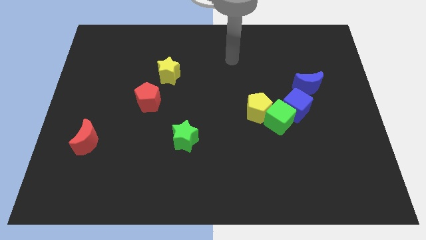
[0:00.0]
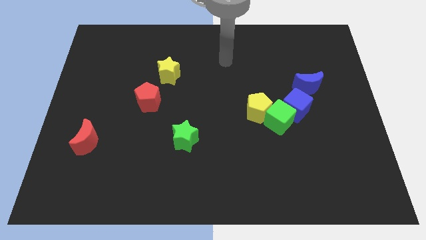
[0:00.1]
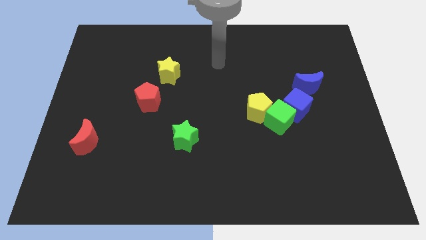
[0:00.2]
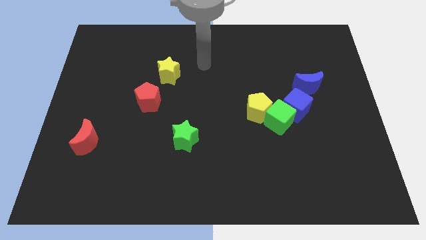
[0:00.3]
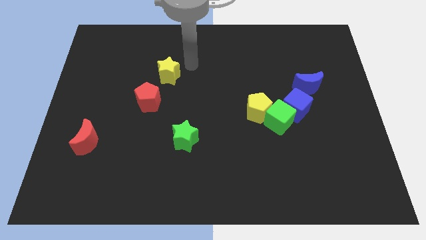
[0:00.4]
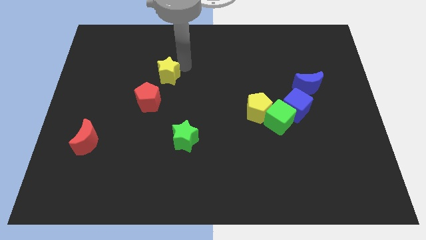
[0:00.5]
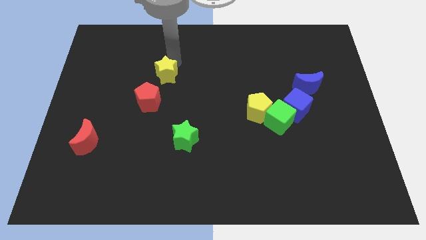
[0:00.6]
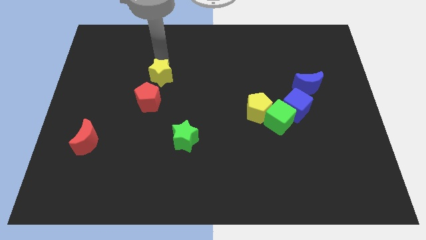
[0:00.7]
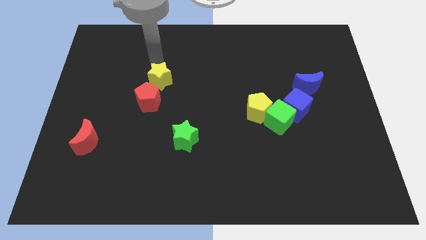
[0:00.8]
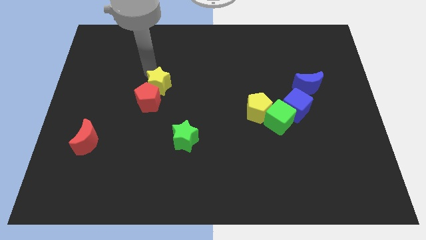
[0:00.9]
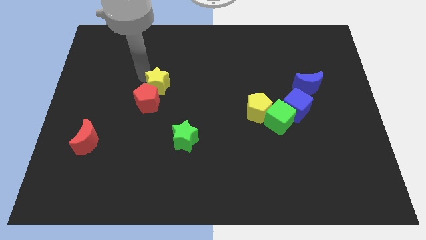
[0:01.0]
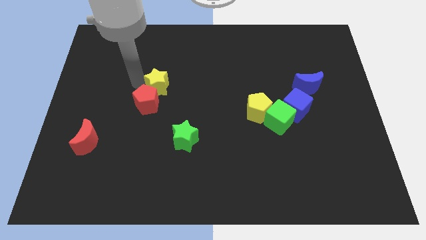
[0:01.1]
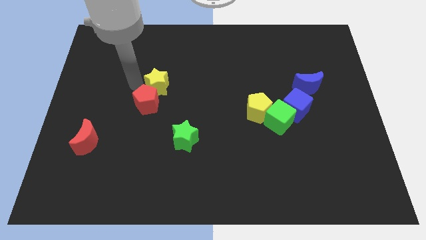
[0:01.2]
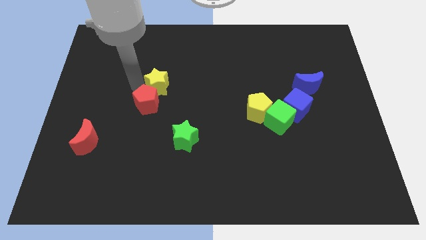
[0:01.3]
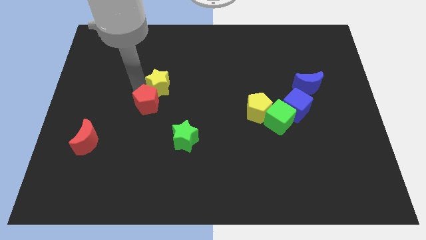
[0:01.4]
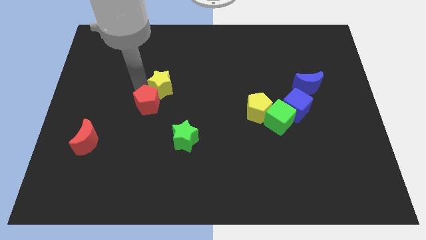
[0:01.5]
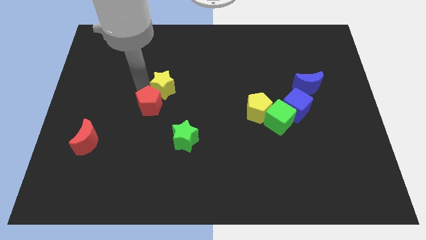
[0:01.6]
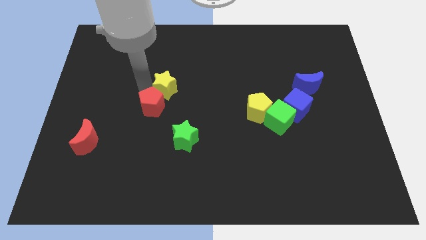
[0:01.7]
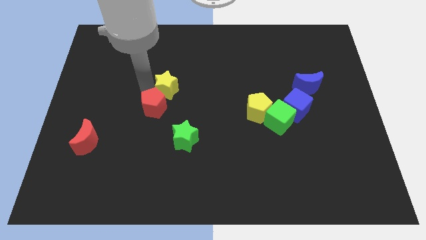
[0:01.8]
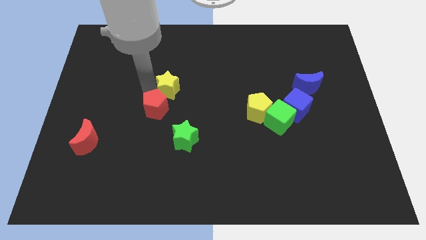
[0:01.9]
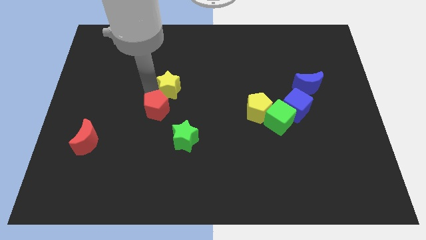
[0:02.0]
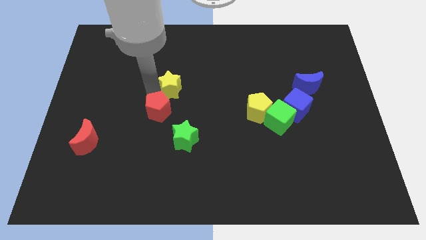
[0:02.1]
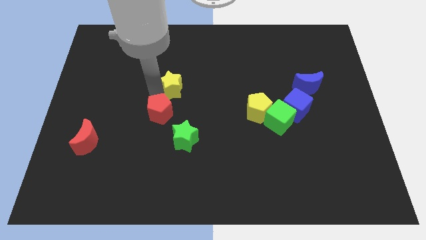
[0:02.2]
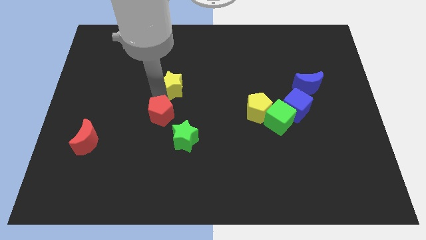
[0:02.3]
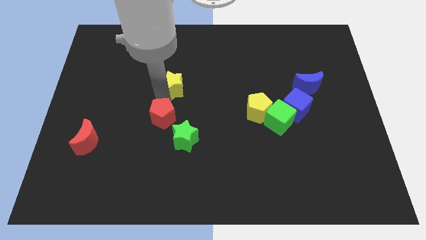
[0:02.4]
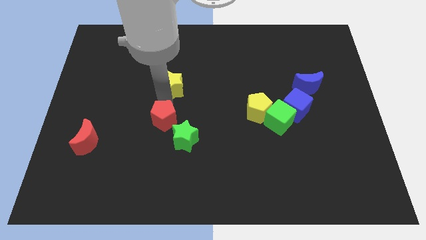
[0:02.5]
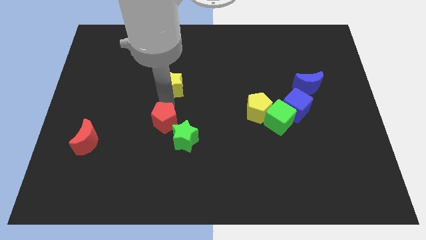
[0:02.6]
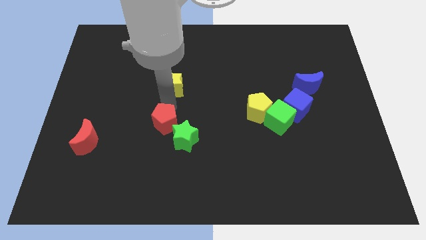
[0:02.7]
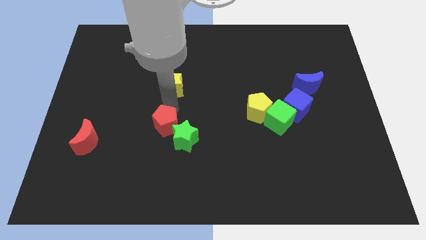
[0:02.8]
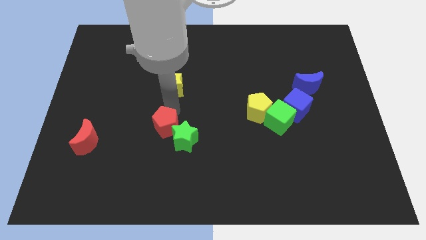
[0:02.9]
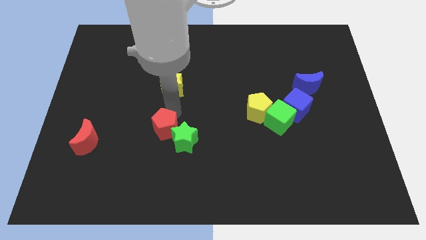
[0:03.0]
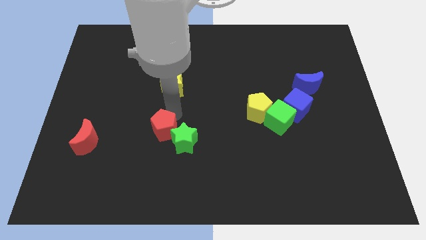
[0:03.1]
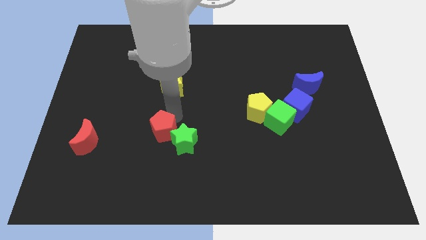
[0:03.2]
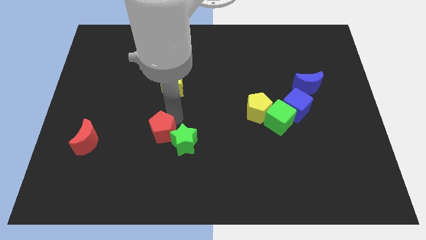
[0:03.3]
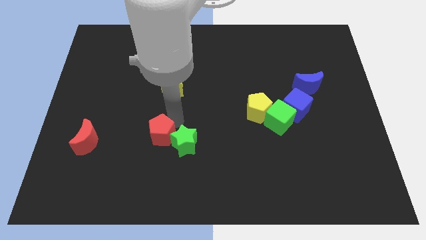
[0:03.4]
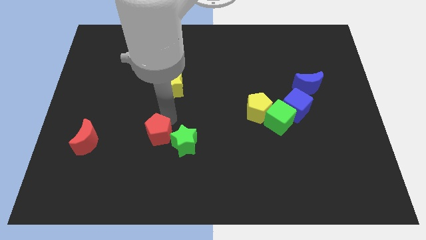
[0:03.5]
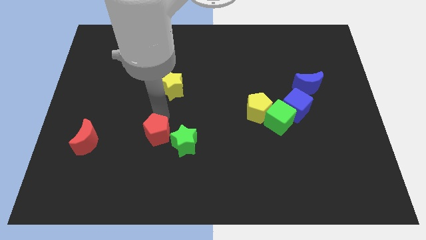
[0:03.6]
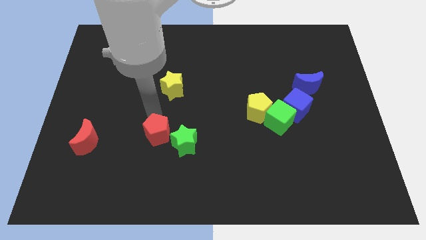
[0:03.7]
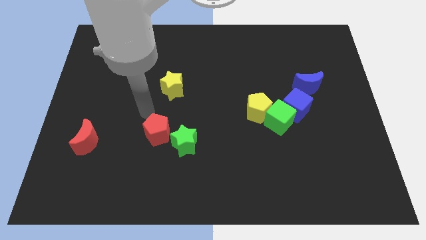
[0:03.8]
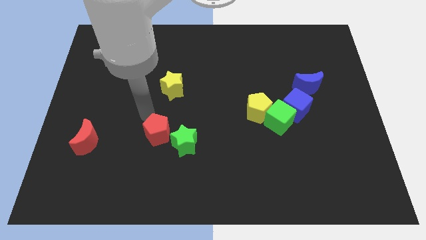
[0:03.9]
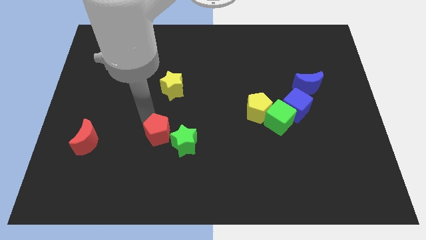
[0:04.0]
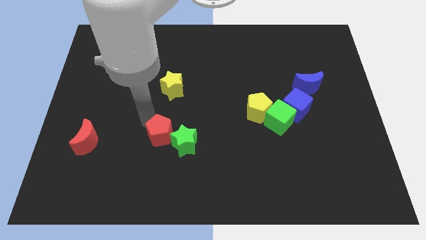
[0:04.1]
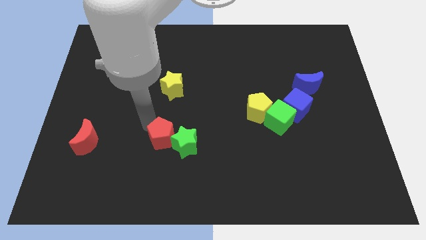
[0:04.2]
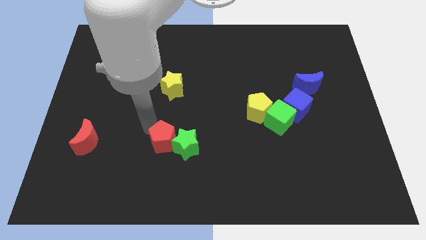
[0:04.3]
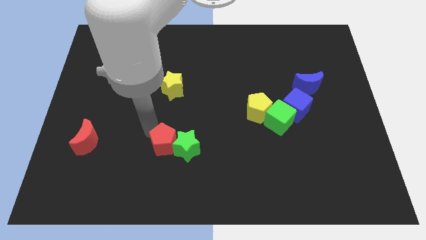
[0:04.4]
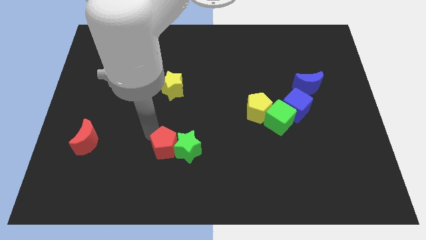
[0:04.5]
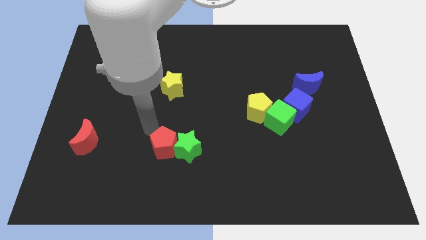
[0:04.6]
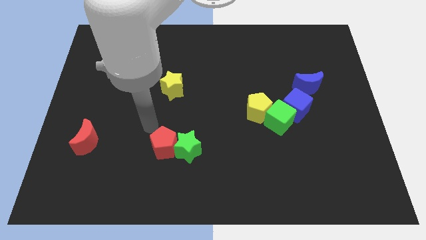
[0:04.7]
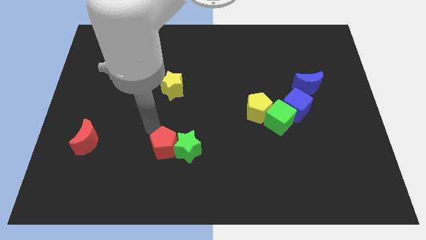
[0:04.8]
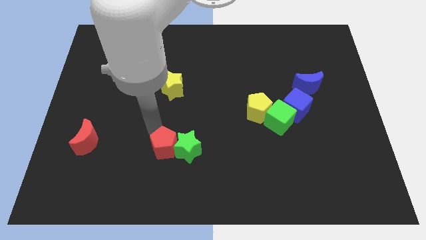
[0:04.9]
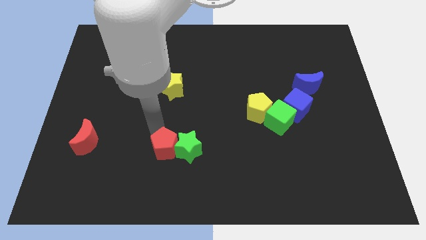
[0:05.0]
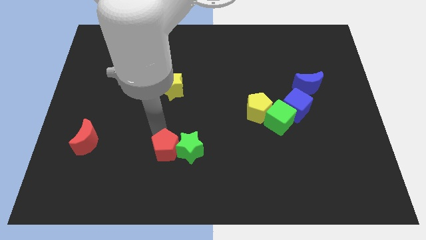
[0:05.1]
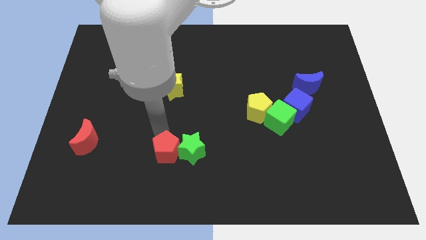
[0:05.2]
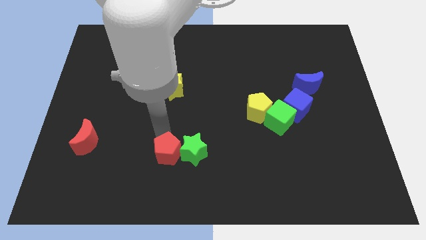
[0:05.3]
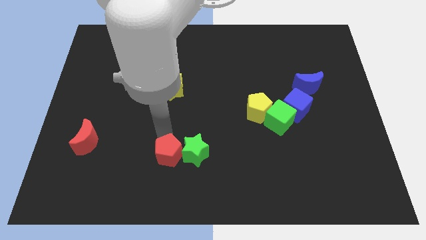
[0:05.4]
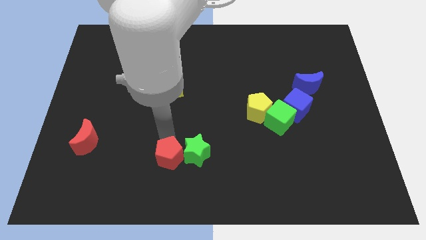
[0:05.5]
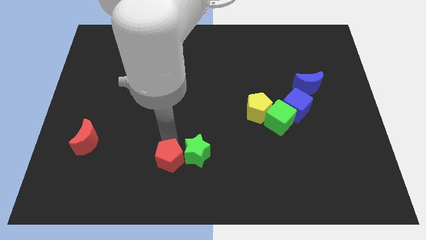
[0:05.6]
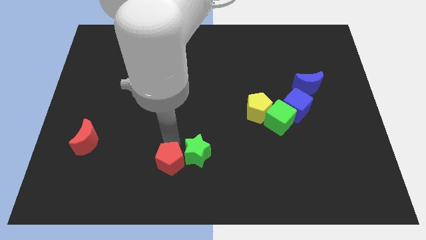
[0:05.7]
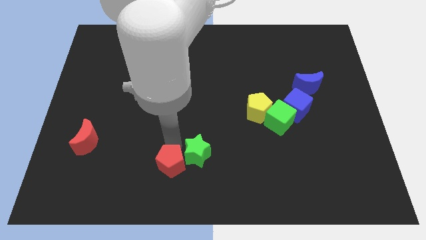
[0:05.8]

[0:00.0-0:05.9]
put the red pentagon to the bottom

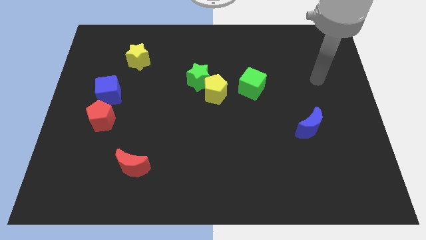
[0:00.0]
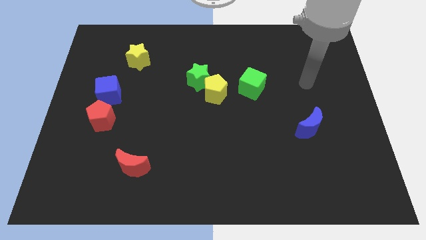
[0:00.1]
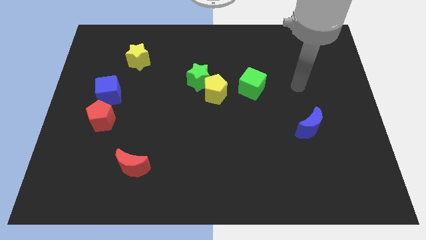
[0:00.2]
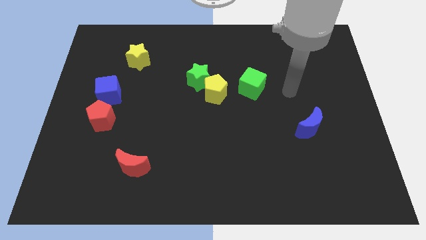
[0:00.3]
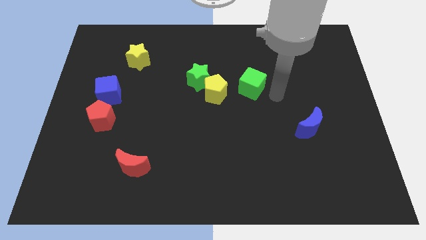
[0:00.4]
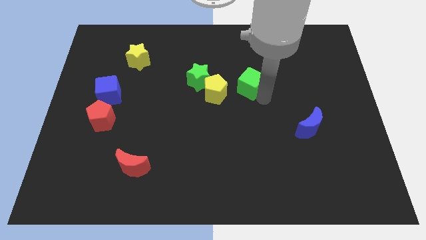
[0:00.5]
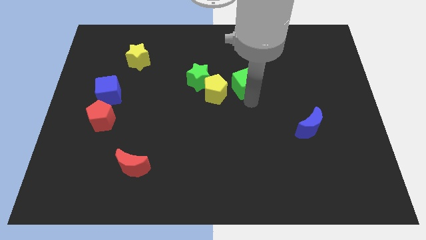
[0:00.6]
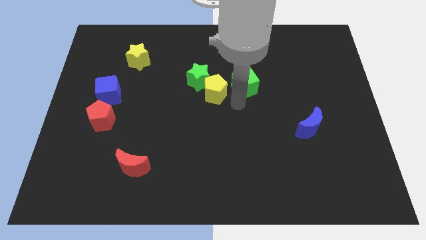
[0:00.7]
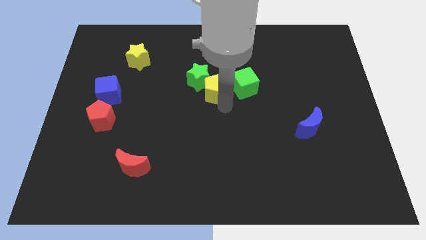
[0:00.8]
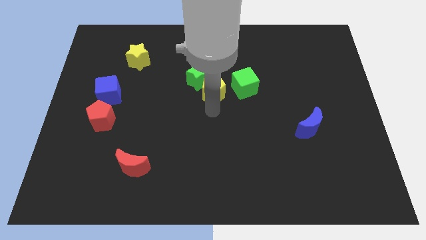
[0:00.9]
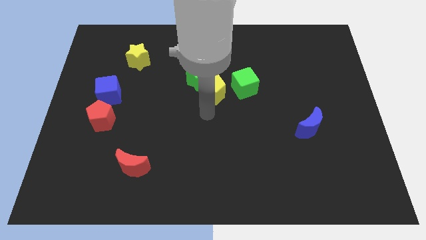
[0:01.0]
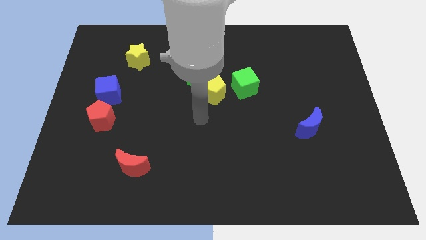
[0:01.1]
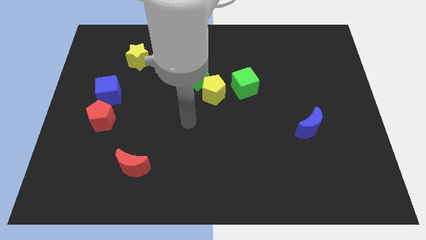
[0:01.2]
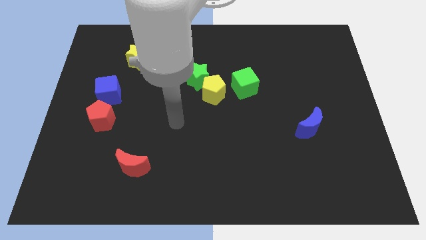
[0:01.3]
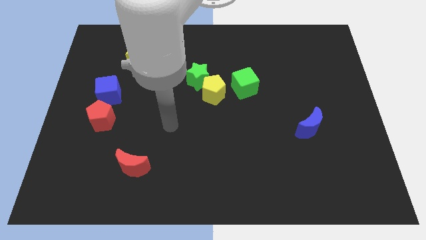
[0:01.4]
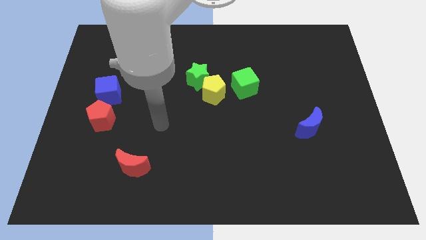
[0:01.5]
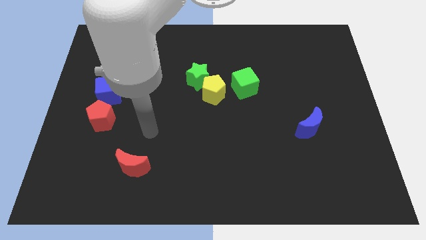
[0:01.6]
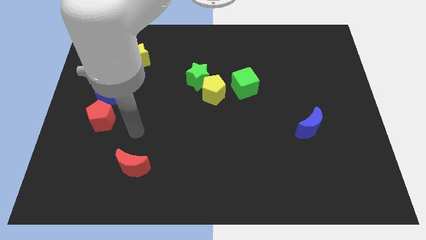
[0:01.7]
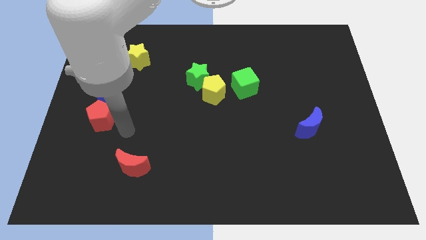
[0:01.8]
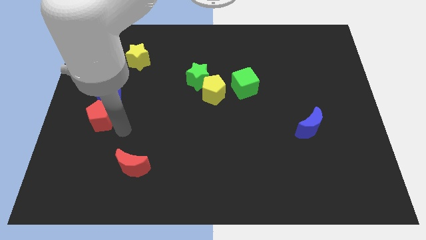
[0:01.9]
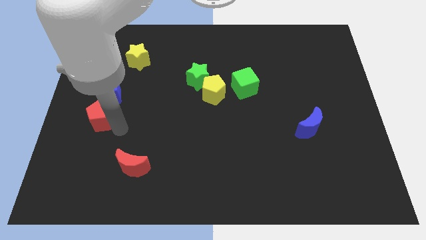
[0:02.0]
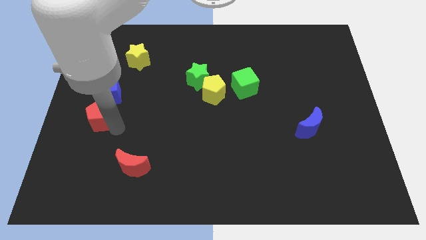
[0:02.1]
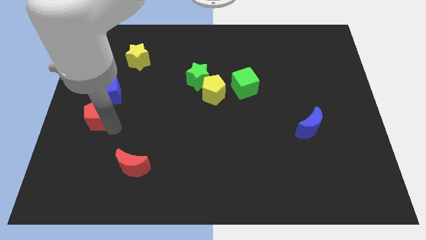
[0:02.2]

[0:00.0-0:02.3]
move the red pentagon to the center left
